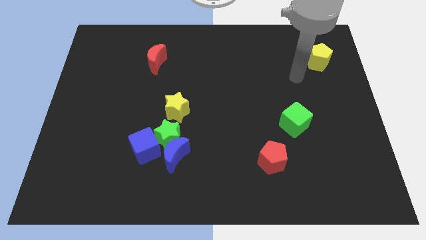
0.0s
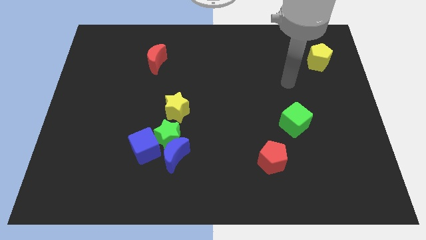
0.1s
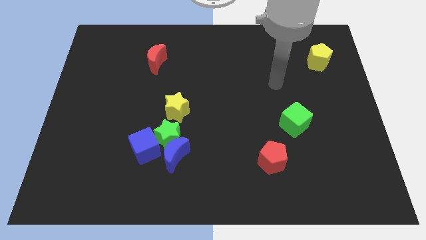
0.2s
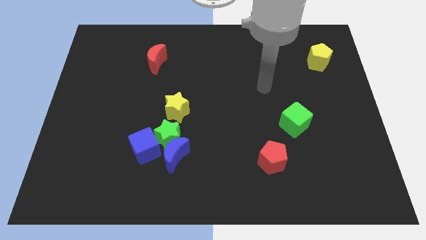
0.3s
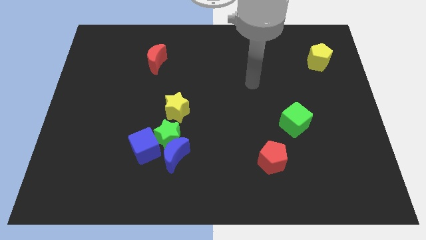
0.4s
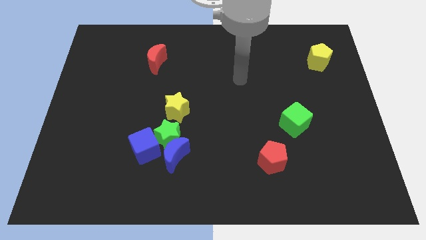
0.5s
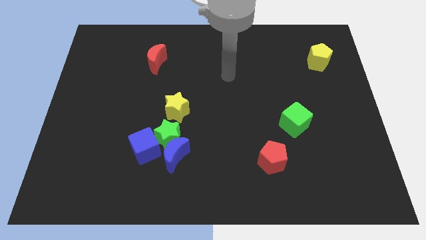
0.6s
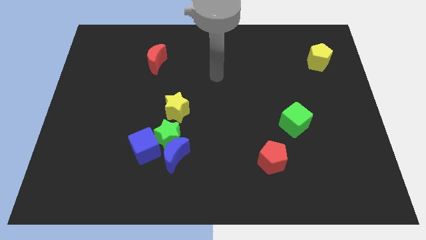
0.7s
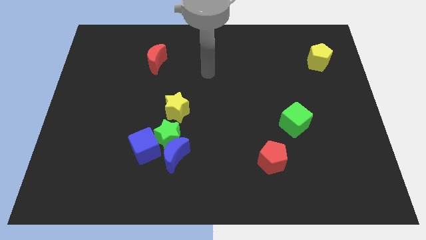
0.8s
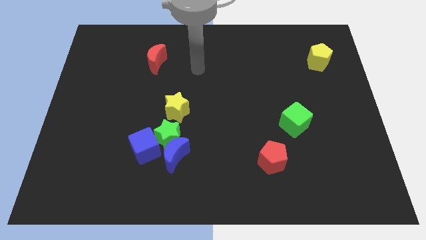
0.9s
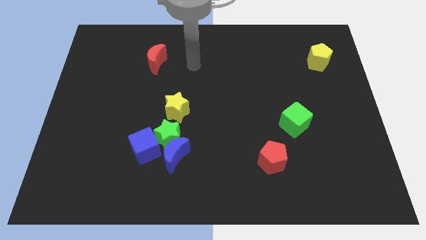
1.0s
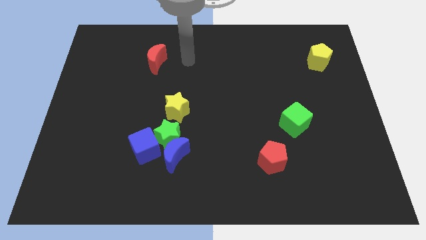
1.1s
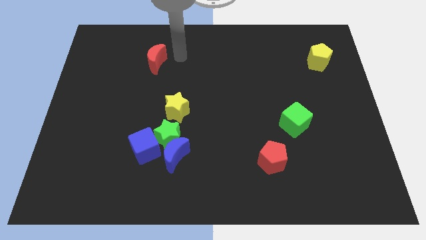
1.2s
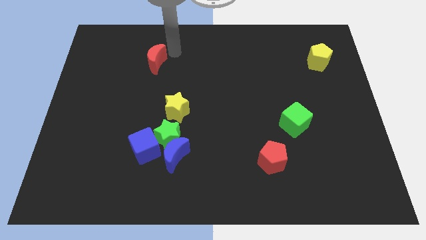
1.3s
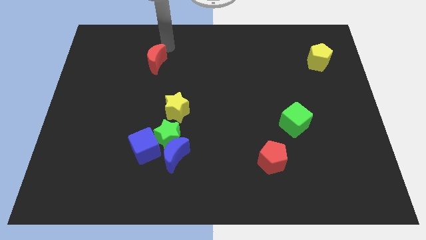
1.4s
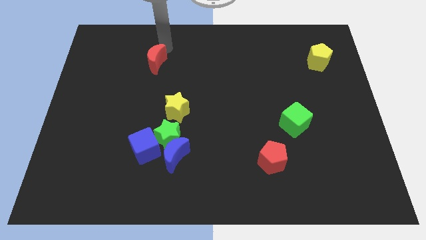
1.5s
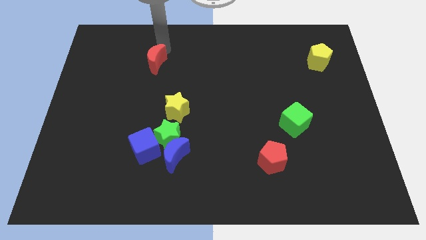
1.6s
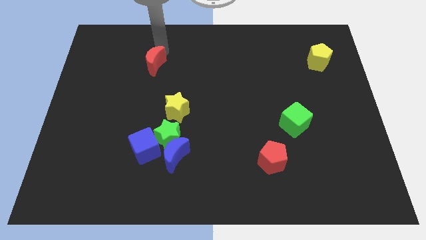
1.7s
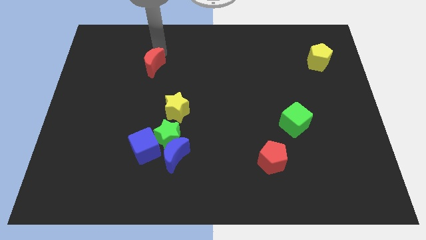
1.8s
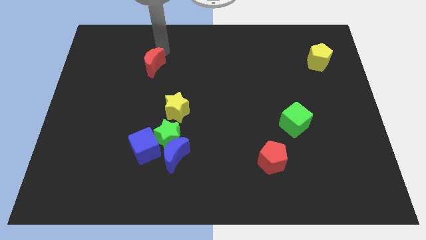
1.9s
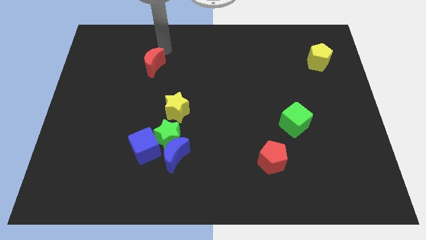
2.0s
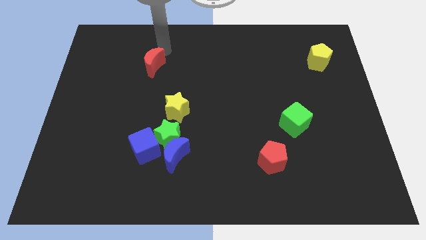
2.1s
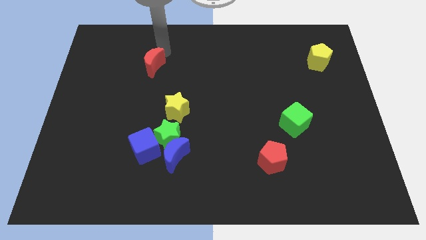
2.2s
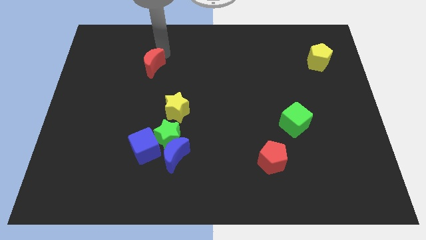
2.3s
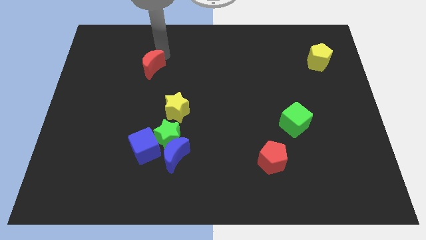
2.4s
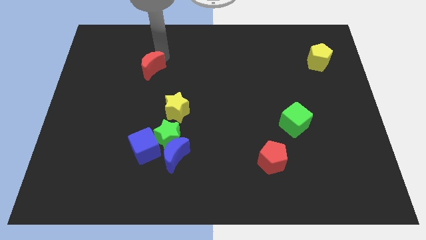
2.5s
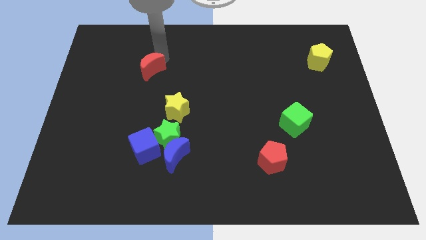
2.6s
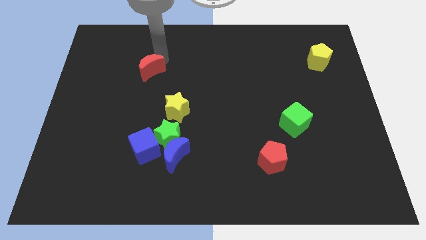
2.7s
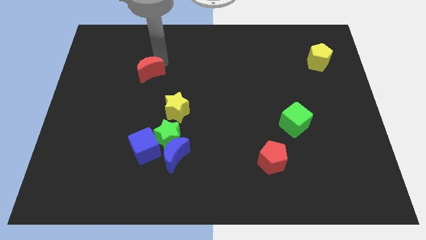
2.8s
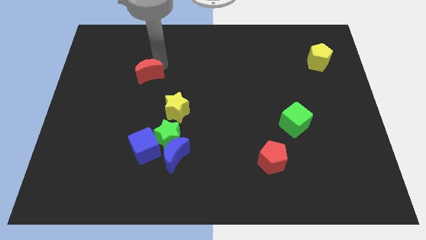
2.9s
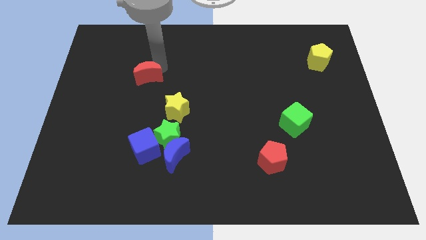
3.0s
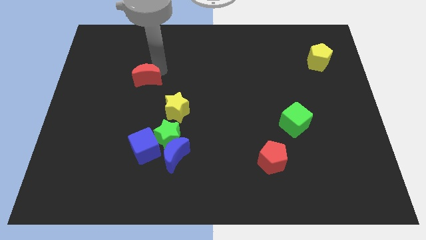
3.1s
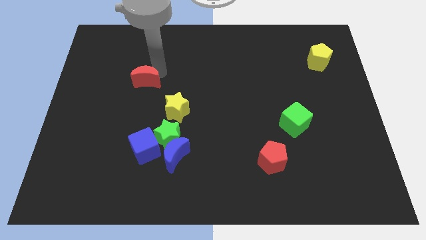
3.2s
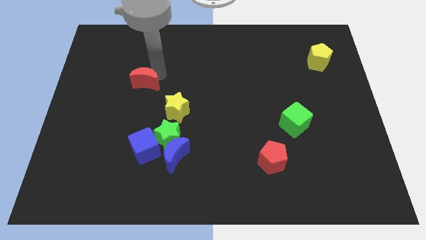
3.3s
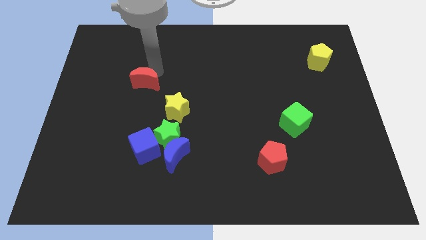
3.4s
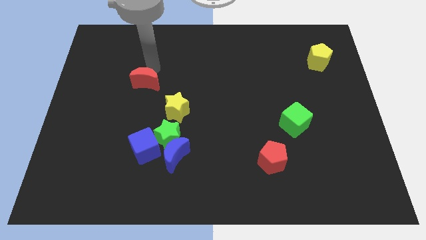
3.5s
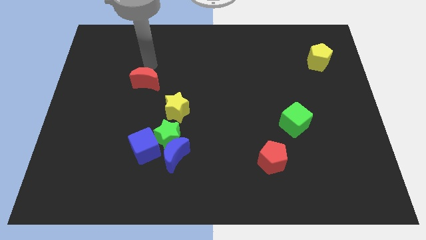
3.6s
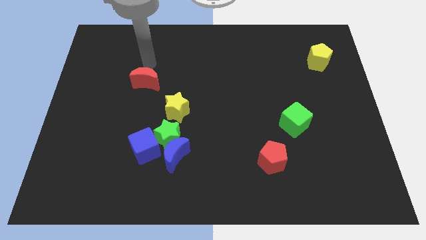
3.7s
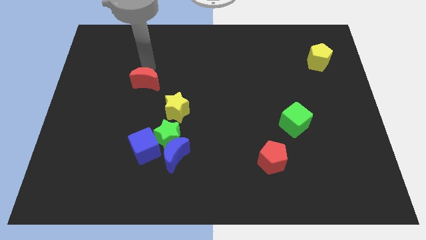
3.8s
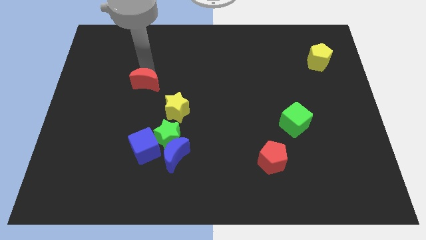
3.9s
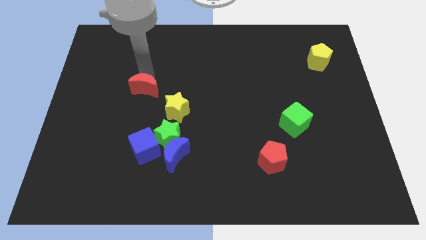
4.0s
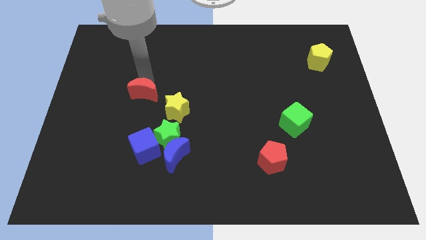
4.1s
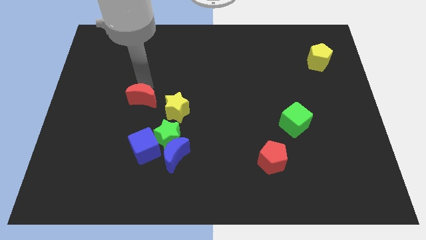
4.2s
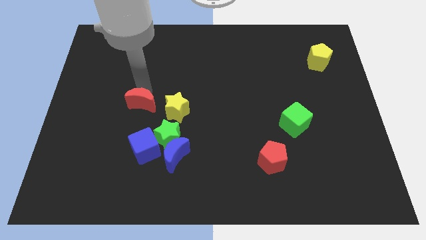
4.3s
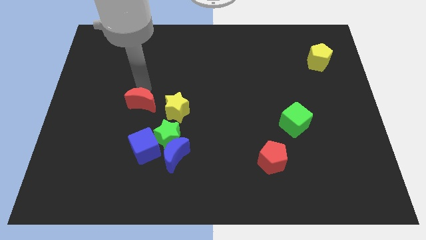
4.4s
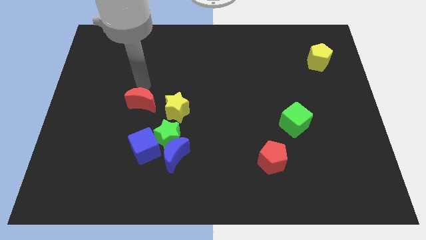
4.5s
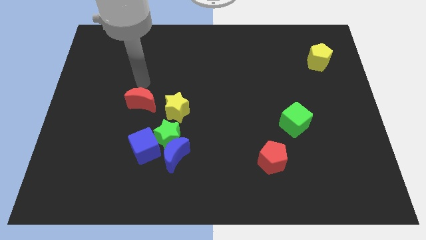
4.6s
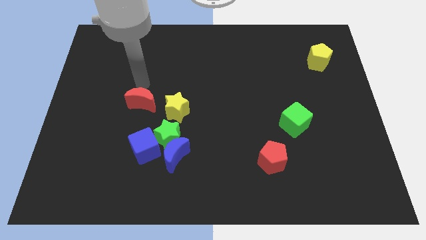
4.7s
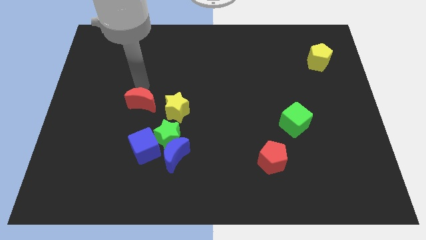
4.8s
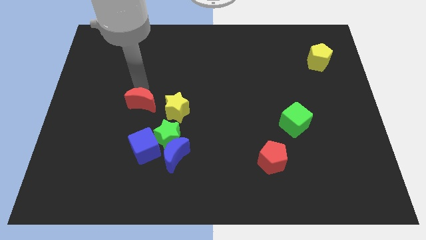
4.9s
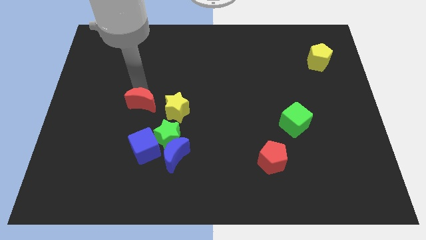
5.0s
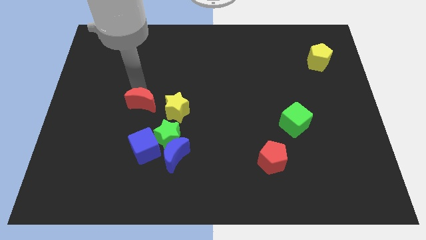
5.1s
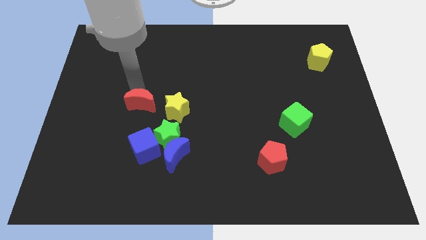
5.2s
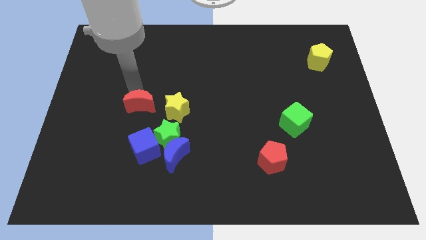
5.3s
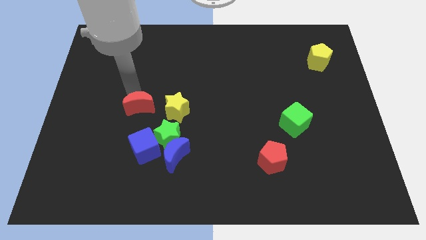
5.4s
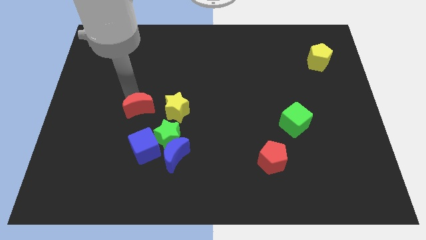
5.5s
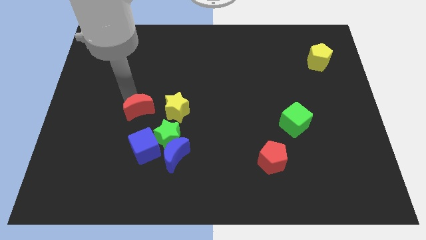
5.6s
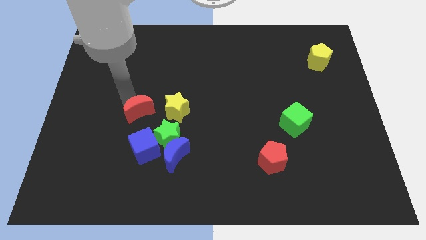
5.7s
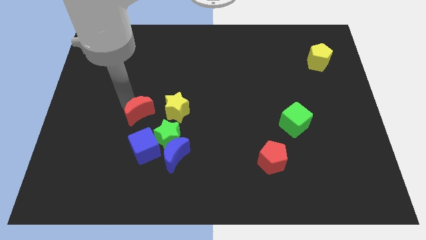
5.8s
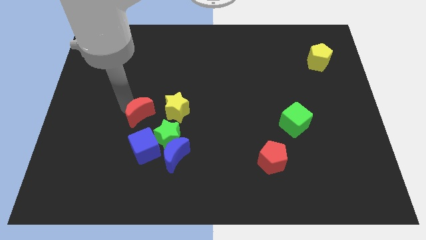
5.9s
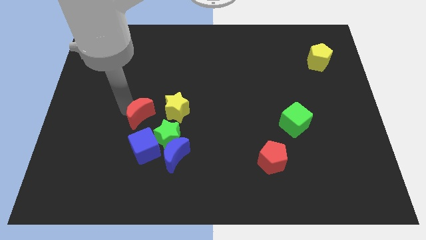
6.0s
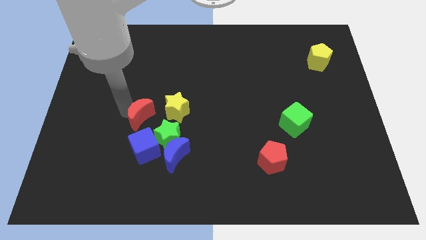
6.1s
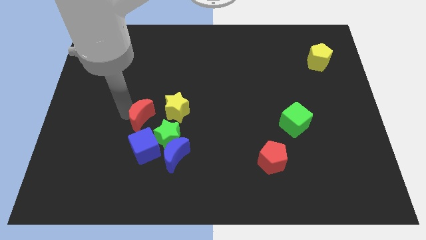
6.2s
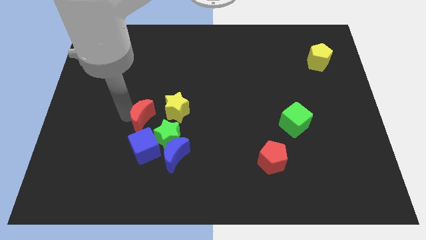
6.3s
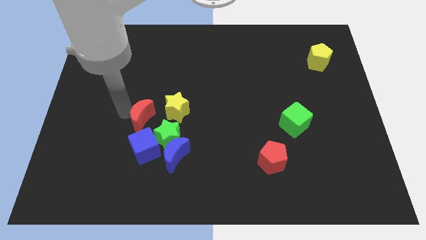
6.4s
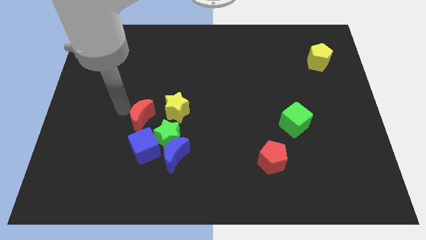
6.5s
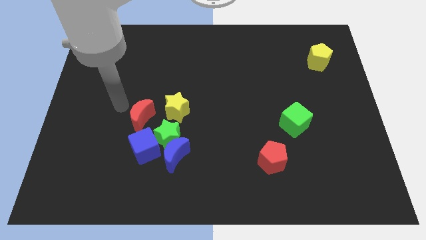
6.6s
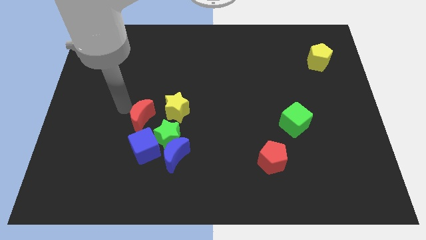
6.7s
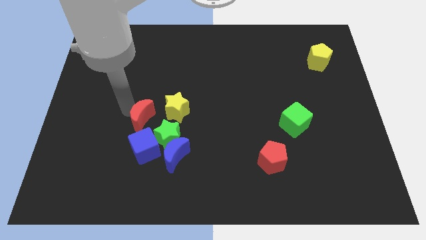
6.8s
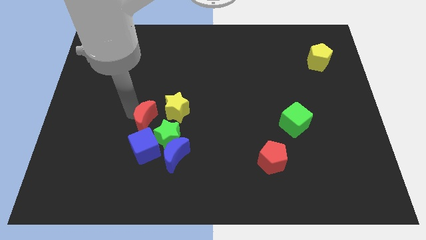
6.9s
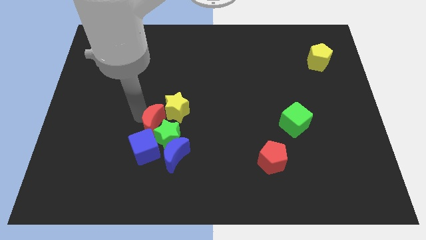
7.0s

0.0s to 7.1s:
move the red moon towards the green star
